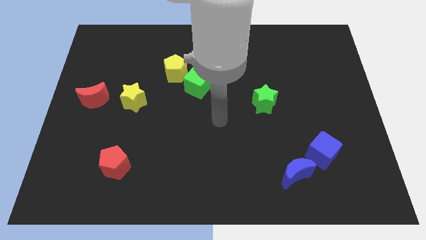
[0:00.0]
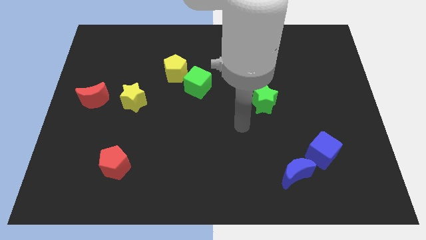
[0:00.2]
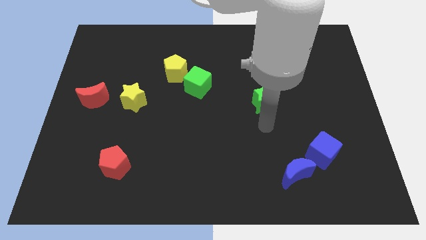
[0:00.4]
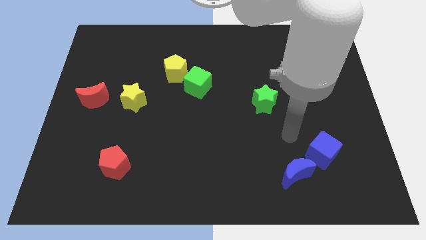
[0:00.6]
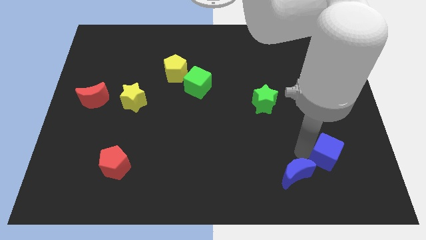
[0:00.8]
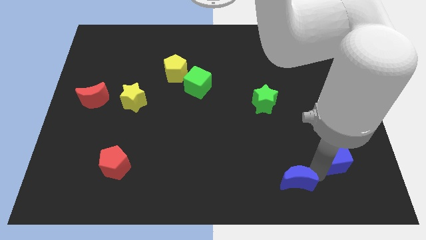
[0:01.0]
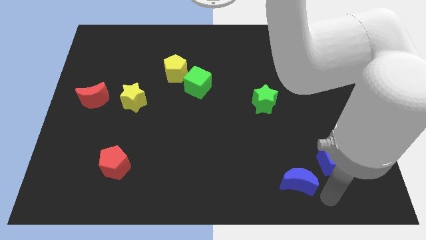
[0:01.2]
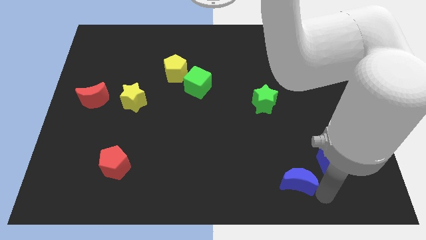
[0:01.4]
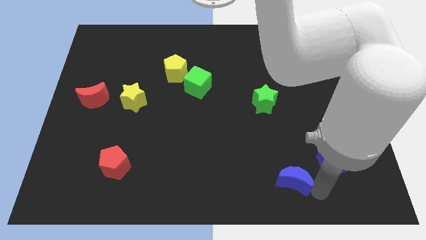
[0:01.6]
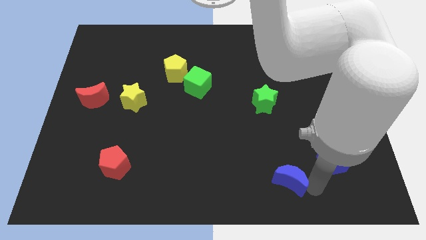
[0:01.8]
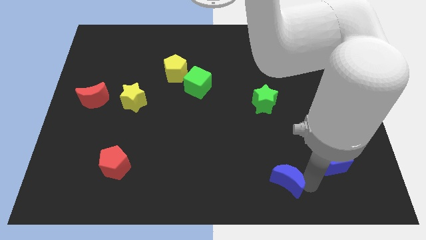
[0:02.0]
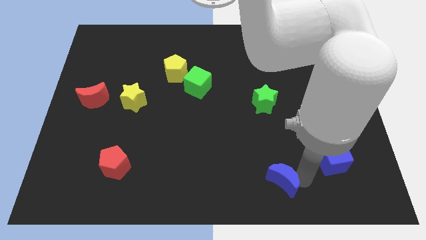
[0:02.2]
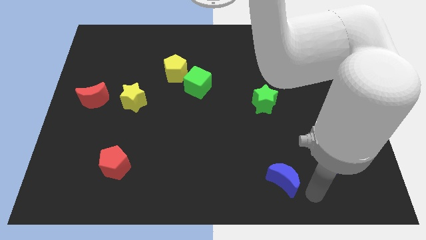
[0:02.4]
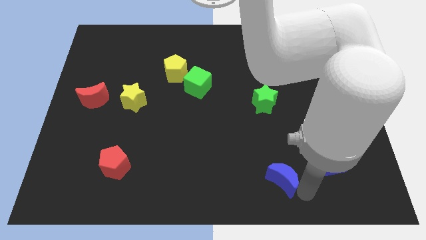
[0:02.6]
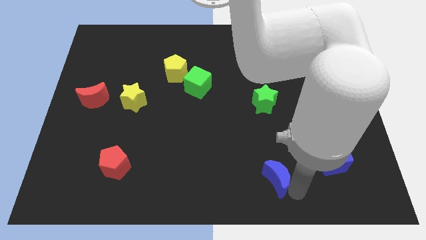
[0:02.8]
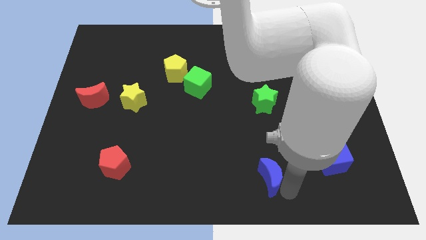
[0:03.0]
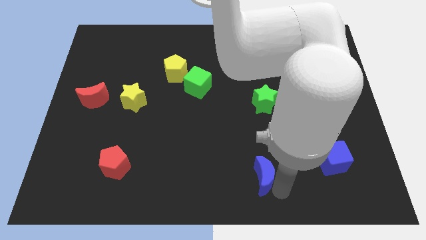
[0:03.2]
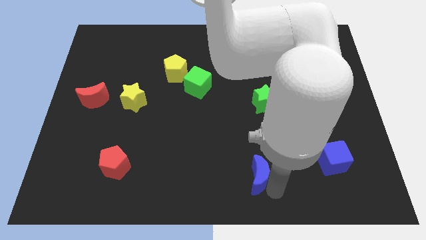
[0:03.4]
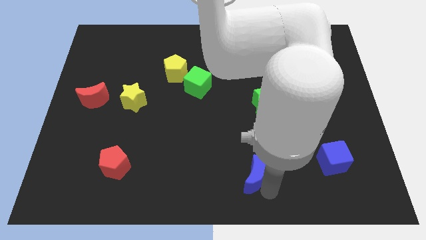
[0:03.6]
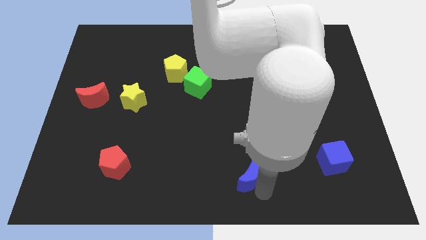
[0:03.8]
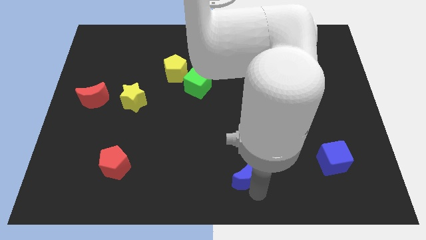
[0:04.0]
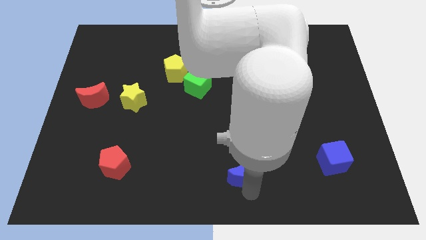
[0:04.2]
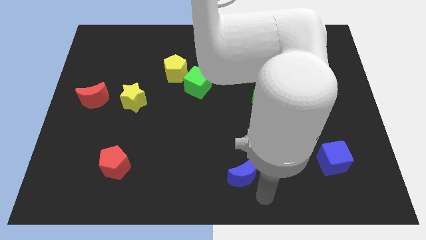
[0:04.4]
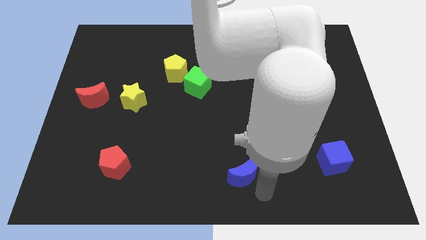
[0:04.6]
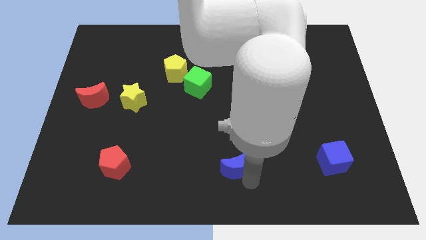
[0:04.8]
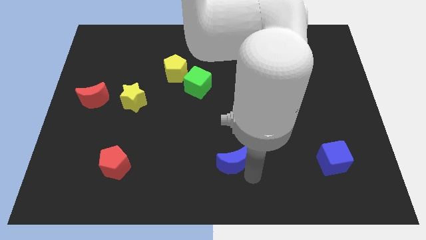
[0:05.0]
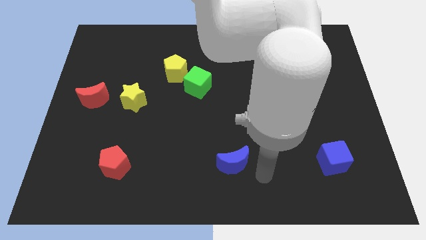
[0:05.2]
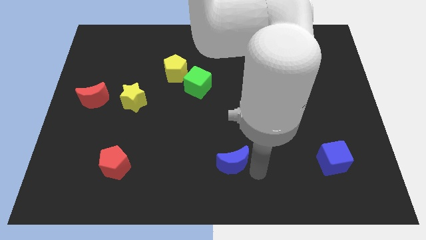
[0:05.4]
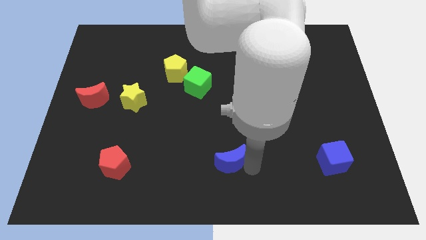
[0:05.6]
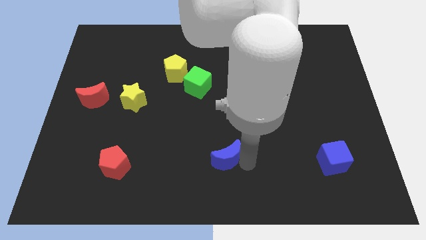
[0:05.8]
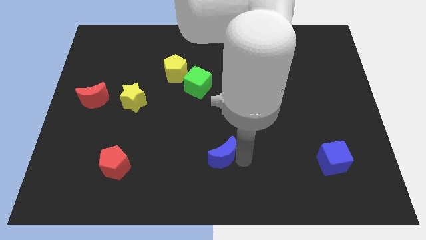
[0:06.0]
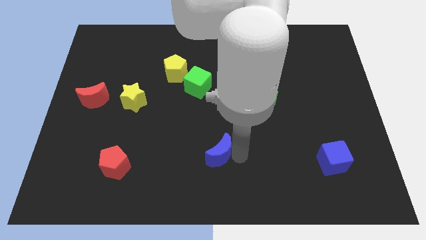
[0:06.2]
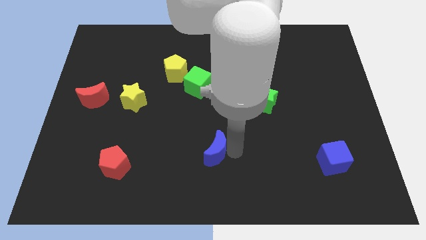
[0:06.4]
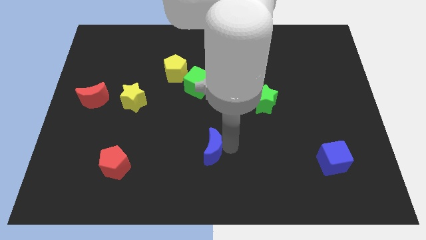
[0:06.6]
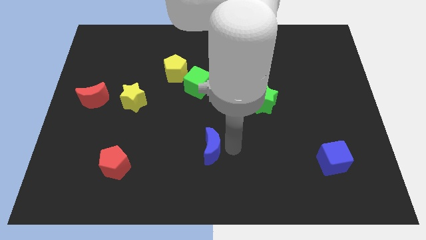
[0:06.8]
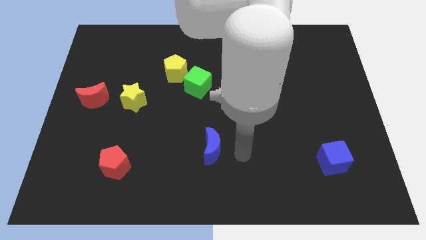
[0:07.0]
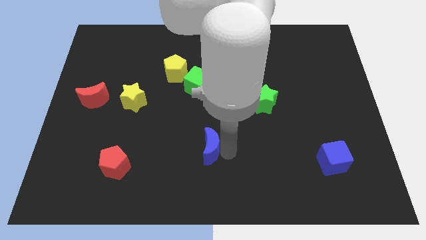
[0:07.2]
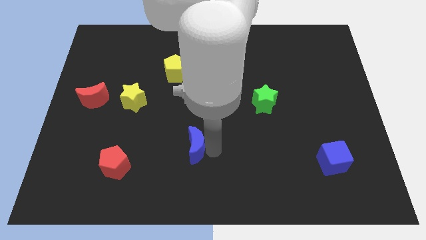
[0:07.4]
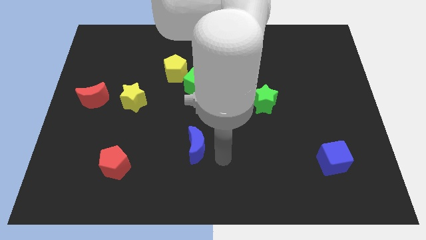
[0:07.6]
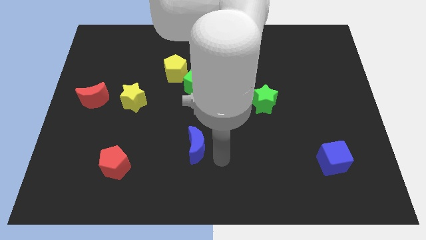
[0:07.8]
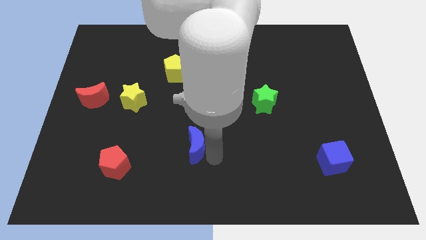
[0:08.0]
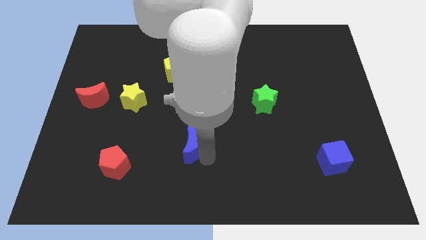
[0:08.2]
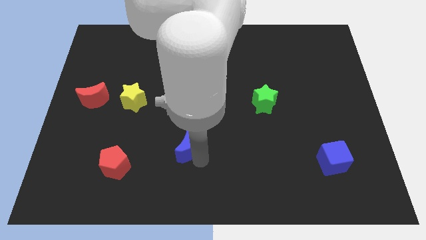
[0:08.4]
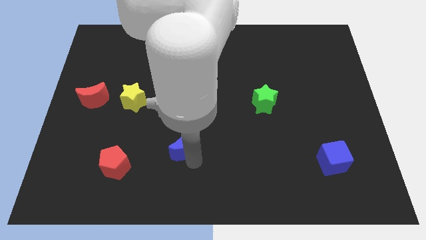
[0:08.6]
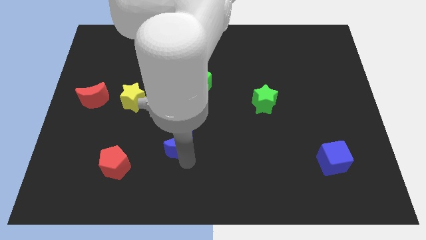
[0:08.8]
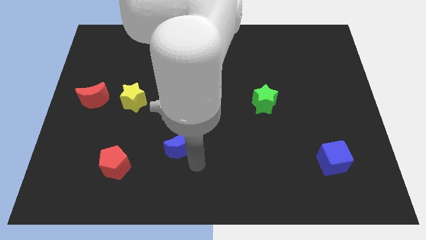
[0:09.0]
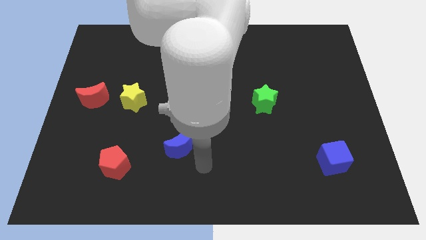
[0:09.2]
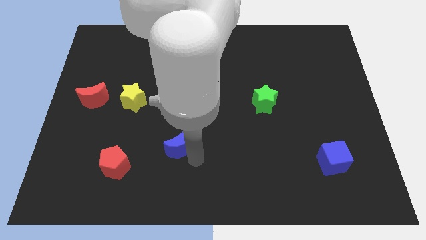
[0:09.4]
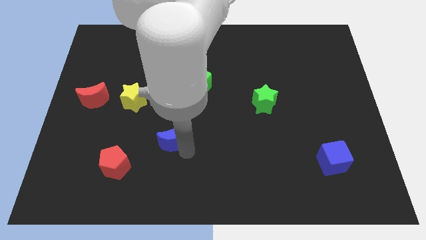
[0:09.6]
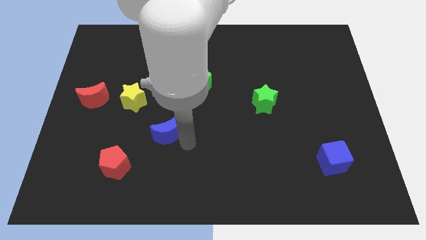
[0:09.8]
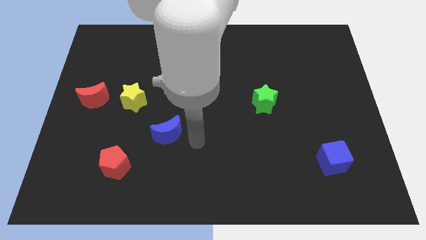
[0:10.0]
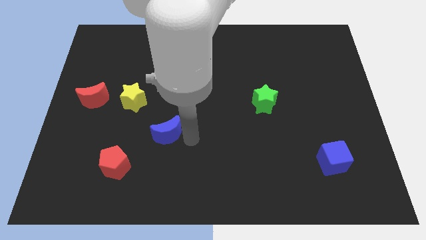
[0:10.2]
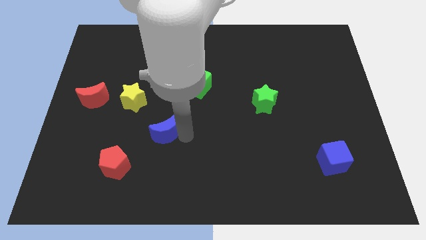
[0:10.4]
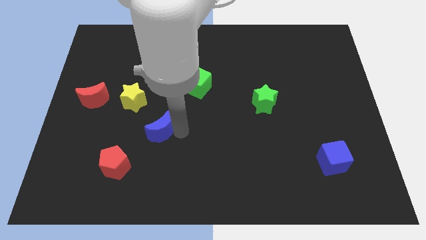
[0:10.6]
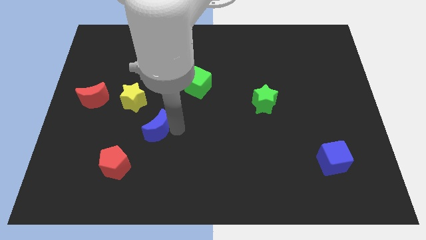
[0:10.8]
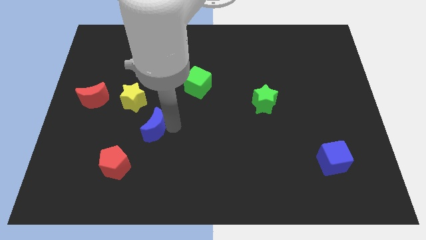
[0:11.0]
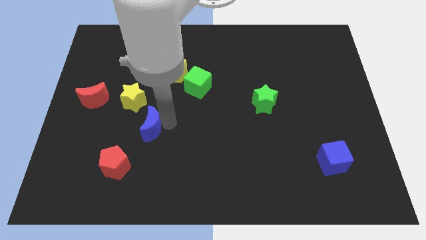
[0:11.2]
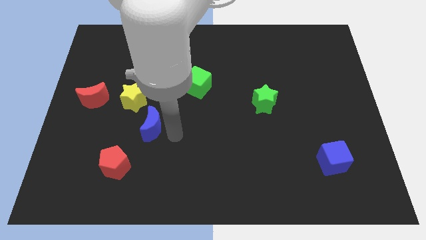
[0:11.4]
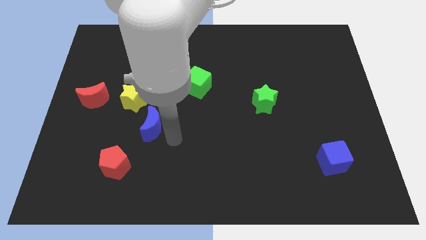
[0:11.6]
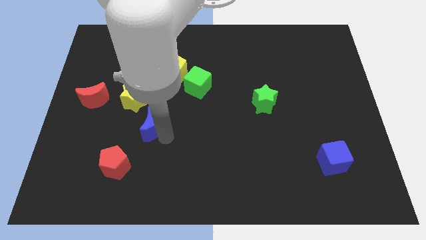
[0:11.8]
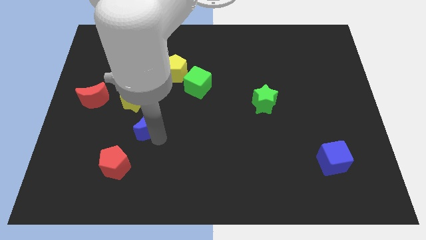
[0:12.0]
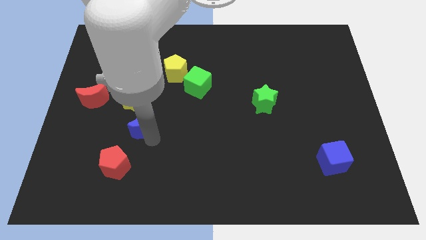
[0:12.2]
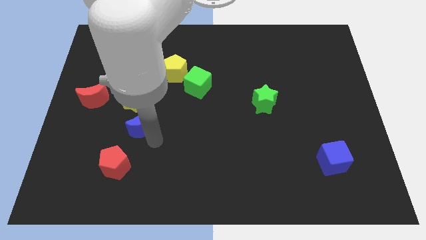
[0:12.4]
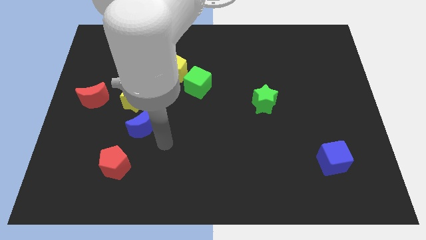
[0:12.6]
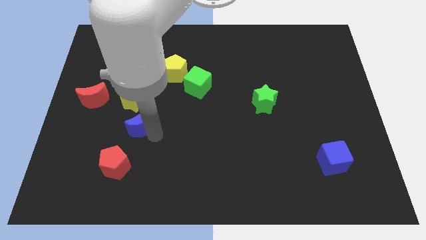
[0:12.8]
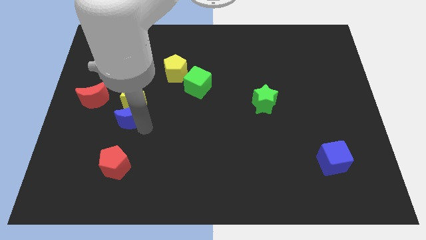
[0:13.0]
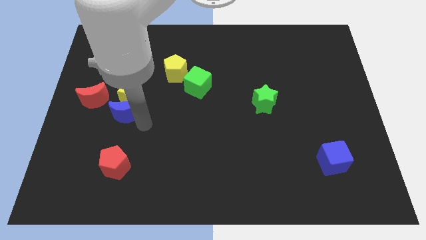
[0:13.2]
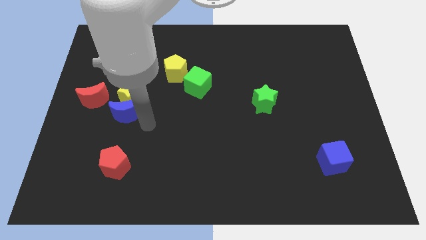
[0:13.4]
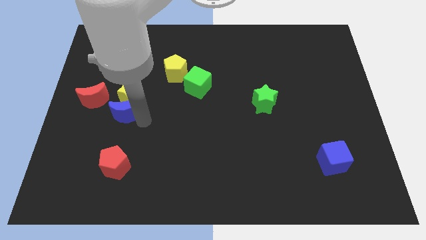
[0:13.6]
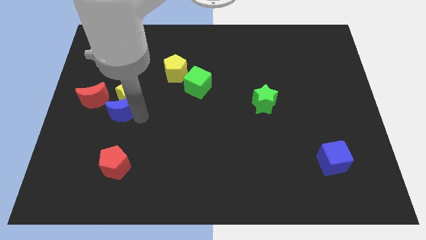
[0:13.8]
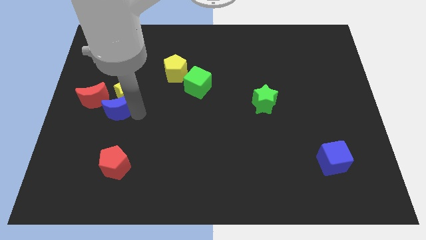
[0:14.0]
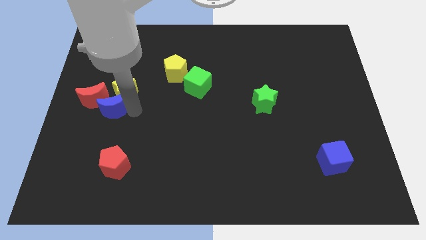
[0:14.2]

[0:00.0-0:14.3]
put the blue moon to the red moon
